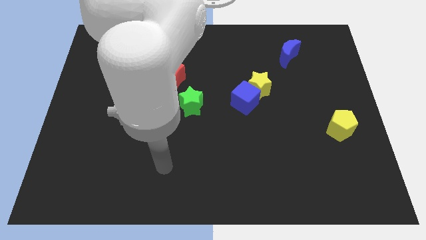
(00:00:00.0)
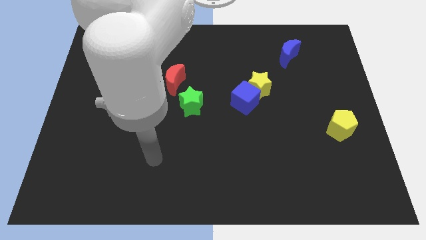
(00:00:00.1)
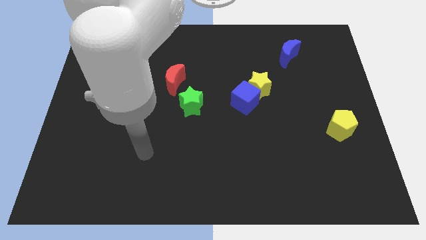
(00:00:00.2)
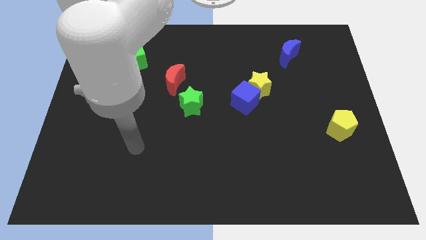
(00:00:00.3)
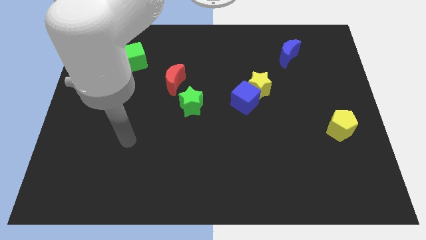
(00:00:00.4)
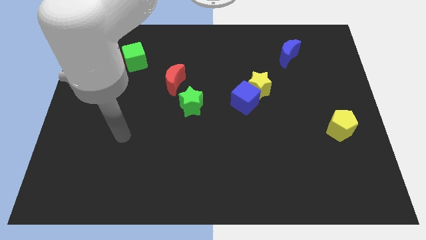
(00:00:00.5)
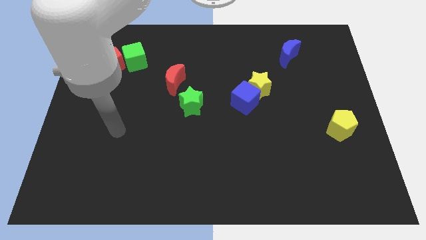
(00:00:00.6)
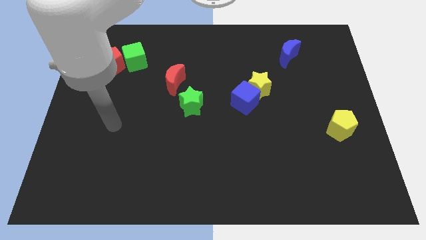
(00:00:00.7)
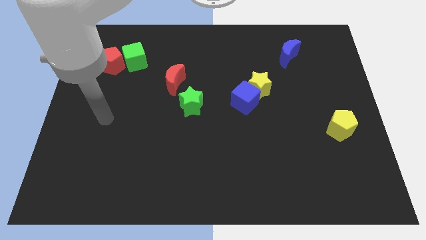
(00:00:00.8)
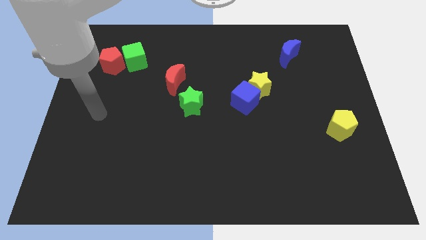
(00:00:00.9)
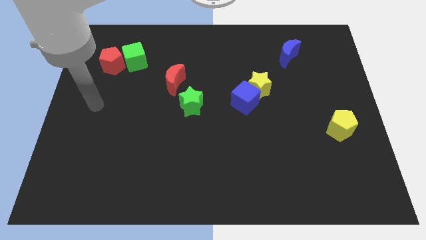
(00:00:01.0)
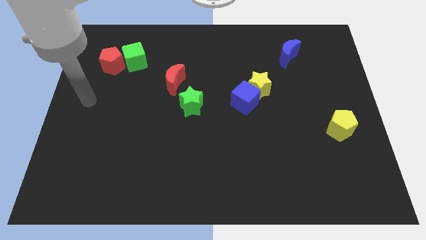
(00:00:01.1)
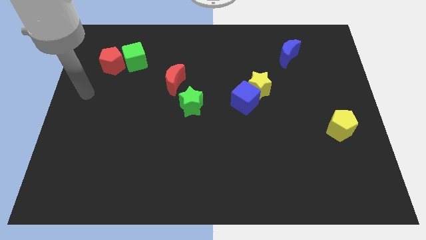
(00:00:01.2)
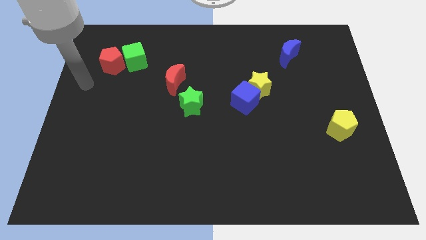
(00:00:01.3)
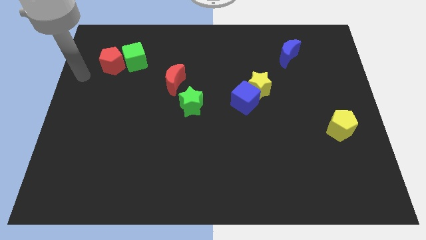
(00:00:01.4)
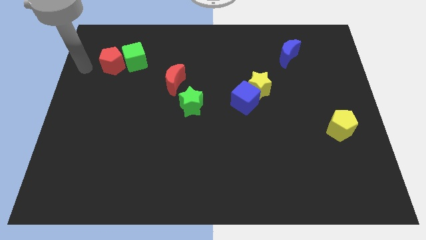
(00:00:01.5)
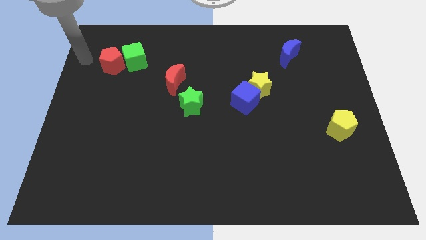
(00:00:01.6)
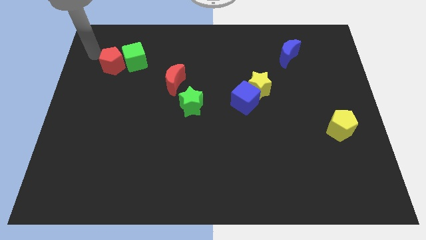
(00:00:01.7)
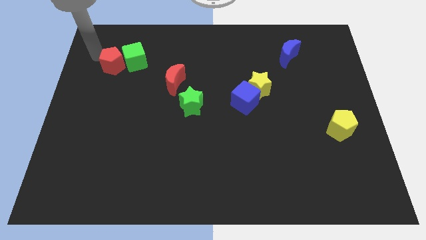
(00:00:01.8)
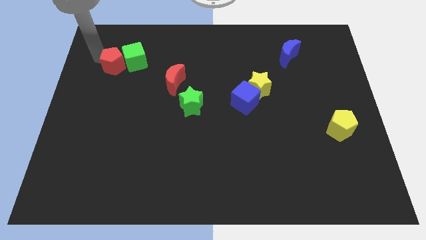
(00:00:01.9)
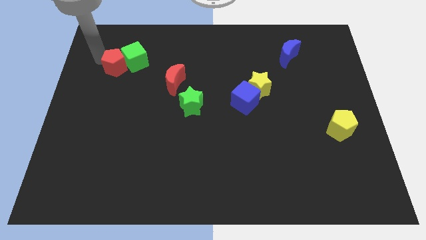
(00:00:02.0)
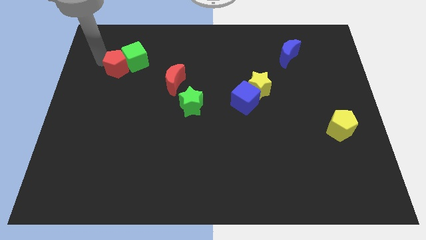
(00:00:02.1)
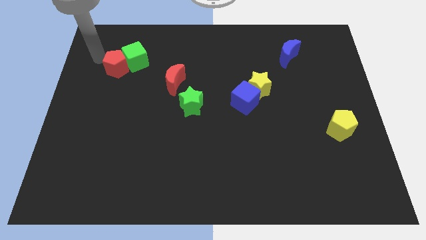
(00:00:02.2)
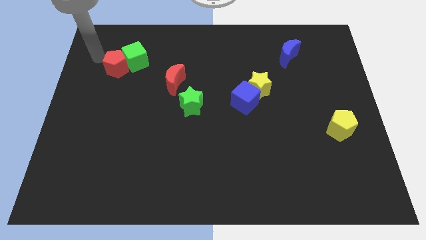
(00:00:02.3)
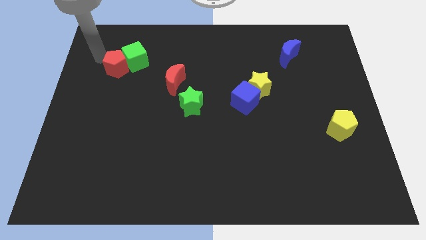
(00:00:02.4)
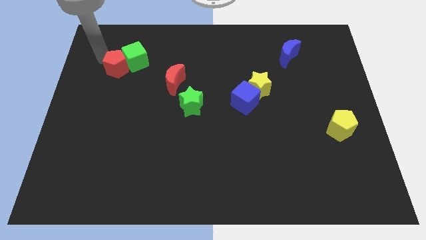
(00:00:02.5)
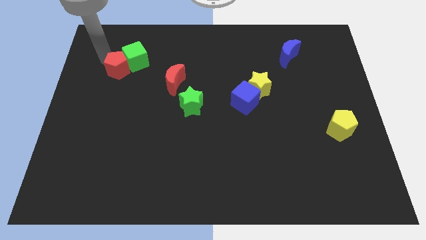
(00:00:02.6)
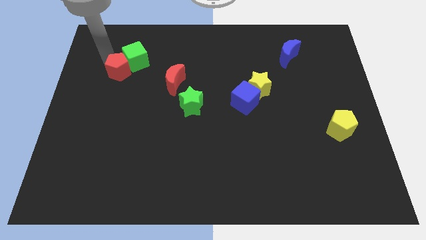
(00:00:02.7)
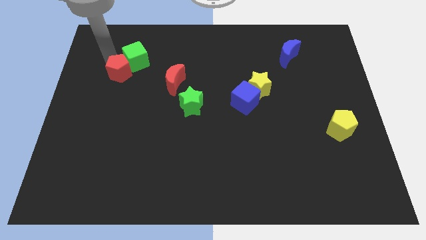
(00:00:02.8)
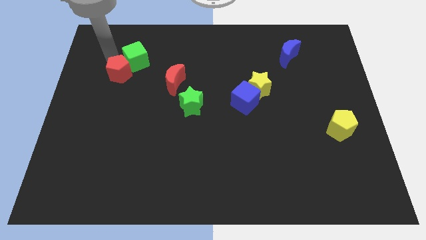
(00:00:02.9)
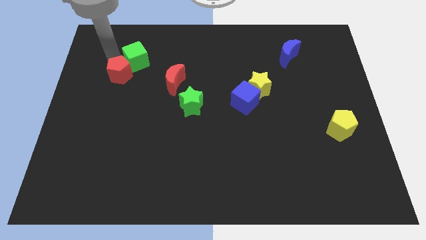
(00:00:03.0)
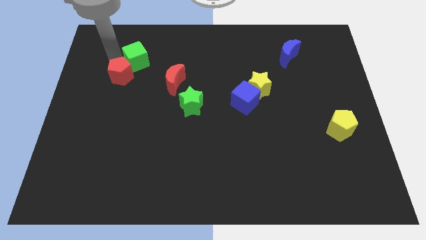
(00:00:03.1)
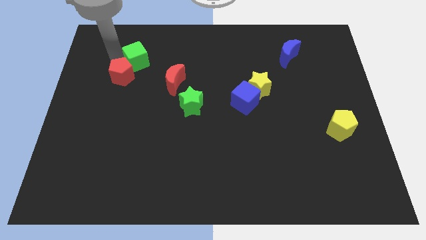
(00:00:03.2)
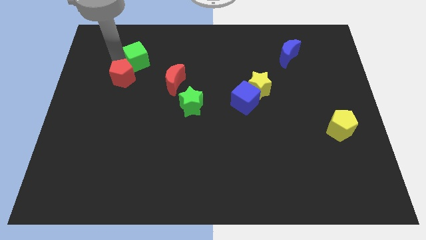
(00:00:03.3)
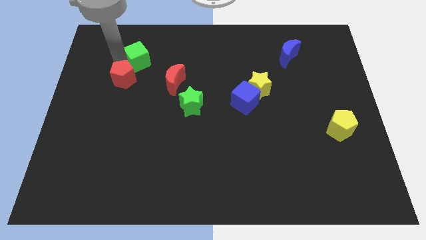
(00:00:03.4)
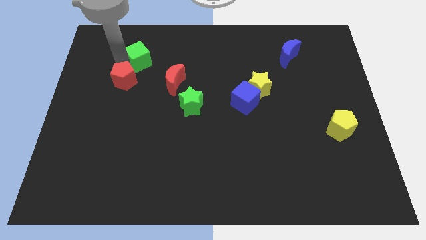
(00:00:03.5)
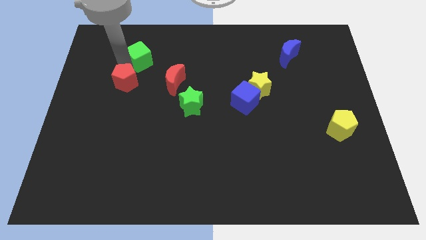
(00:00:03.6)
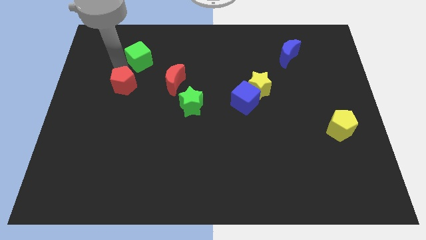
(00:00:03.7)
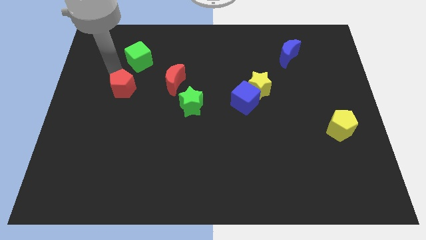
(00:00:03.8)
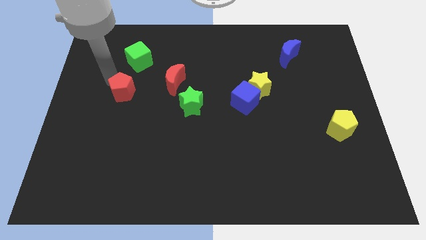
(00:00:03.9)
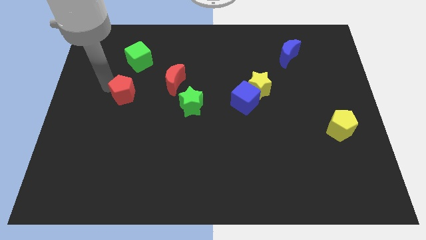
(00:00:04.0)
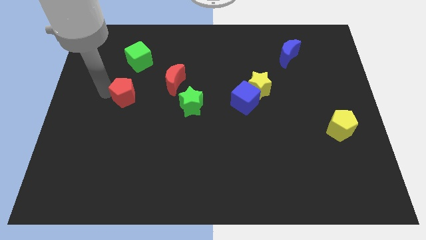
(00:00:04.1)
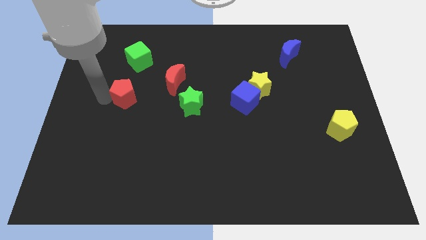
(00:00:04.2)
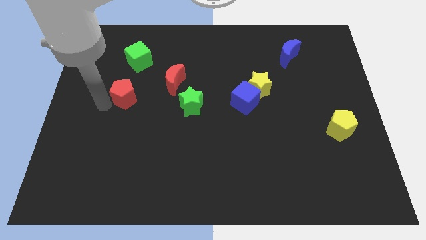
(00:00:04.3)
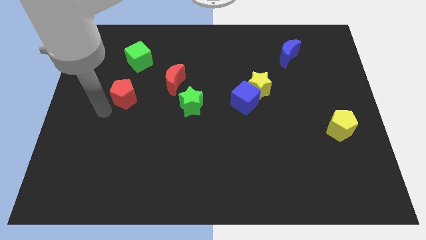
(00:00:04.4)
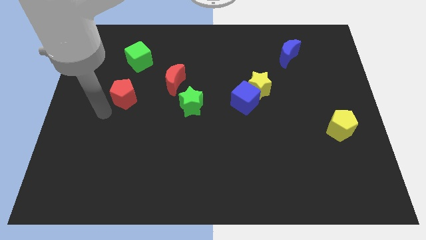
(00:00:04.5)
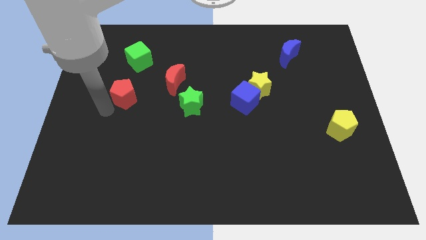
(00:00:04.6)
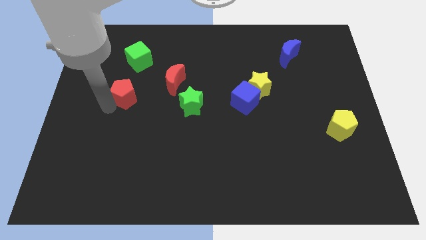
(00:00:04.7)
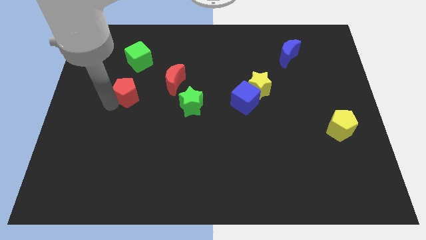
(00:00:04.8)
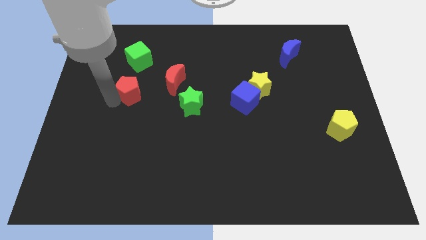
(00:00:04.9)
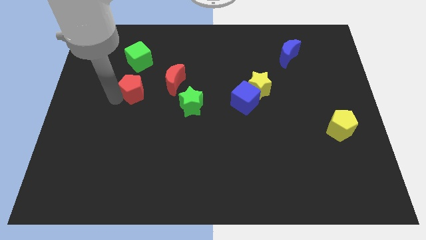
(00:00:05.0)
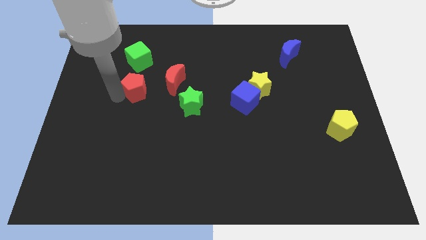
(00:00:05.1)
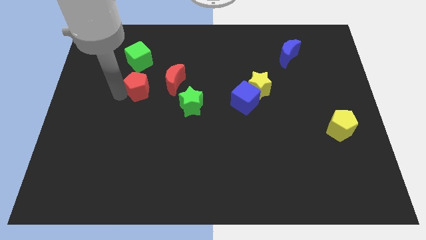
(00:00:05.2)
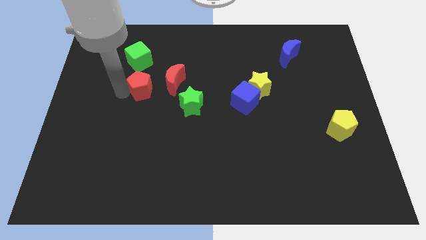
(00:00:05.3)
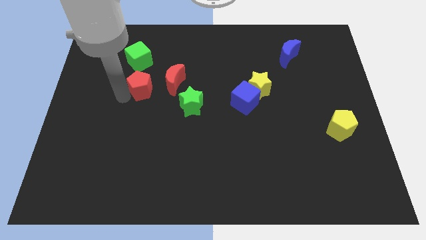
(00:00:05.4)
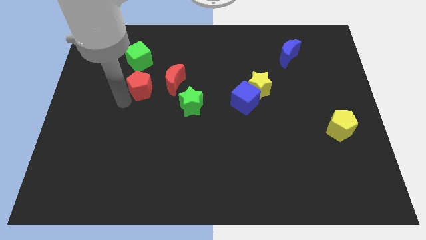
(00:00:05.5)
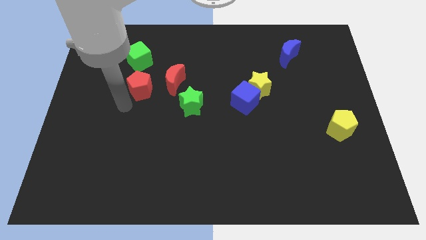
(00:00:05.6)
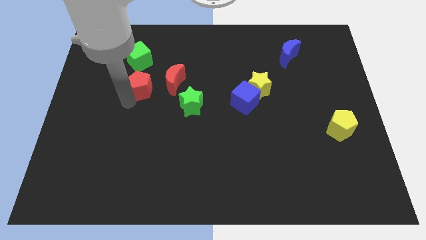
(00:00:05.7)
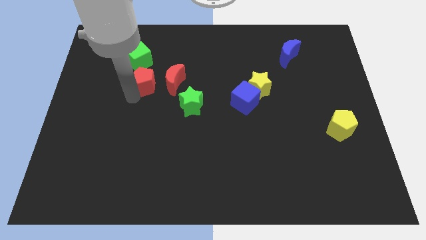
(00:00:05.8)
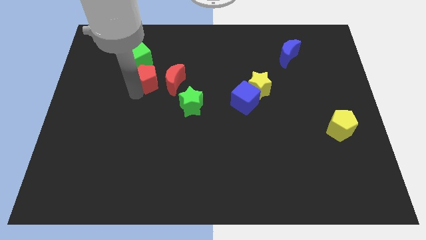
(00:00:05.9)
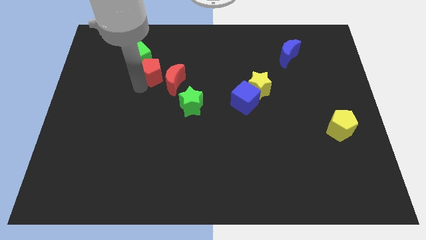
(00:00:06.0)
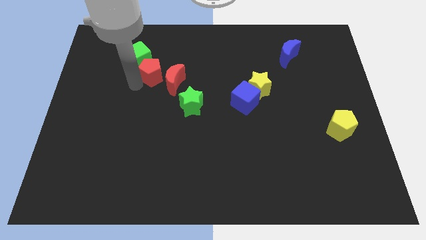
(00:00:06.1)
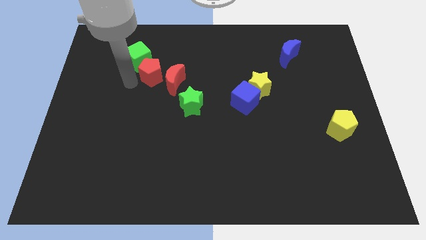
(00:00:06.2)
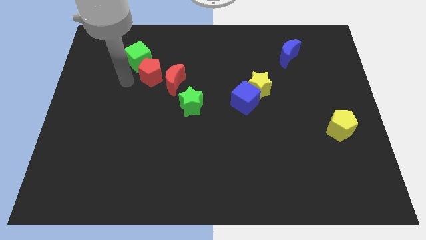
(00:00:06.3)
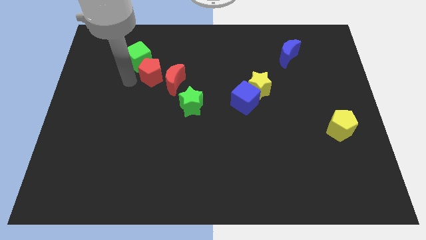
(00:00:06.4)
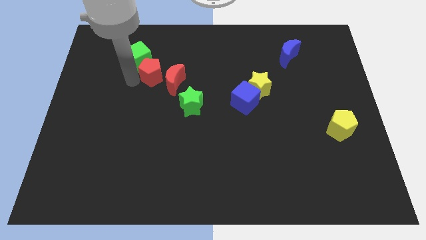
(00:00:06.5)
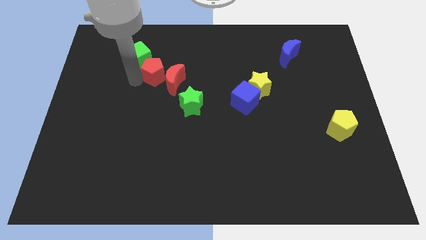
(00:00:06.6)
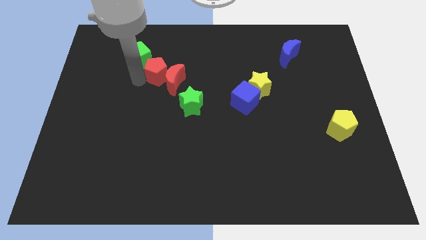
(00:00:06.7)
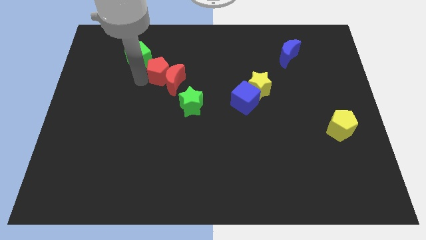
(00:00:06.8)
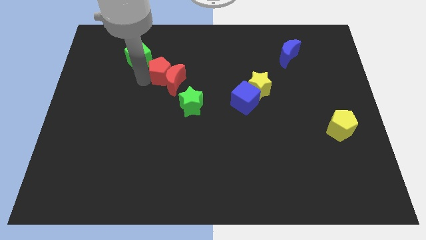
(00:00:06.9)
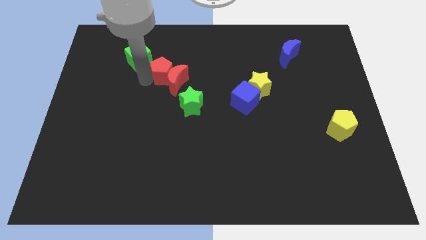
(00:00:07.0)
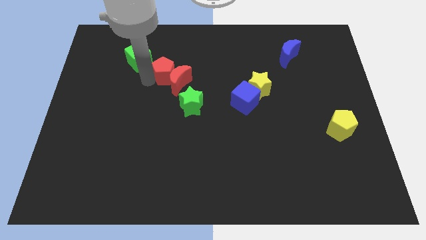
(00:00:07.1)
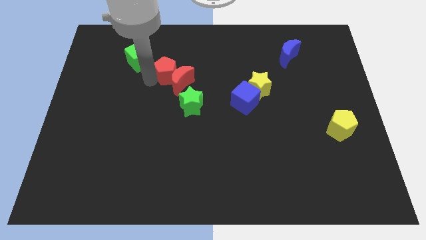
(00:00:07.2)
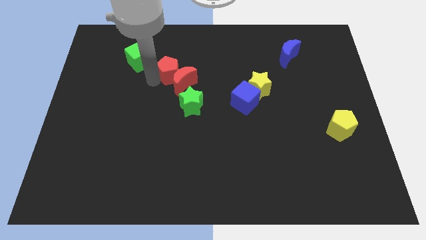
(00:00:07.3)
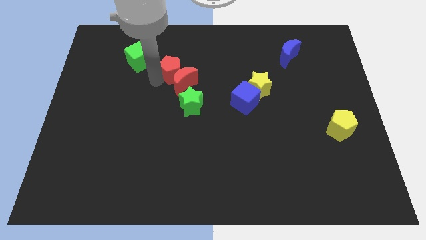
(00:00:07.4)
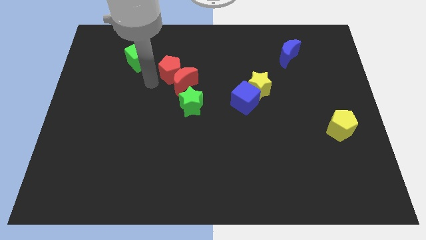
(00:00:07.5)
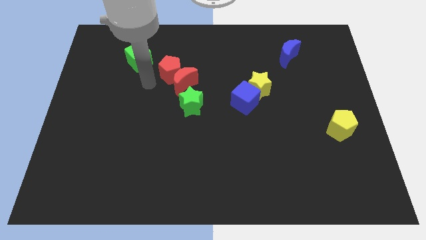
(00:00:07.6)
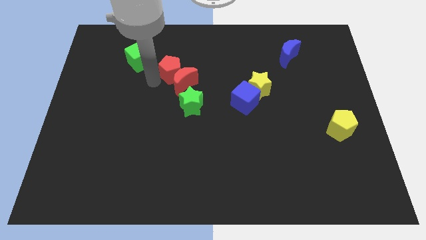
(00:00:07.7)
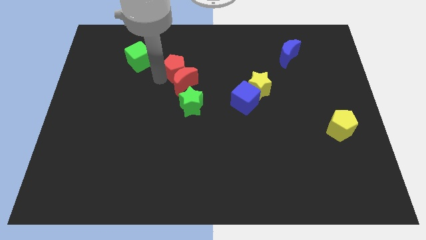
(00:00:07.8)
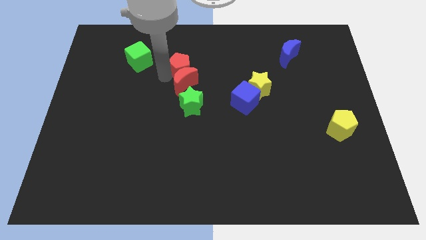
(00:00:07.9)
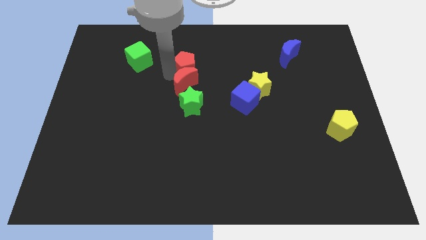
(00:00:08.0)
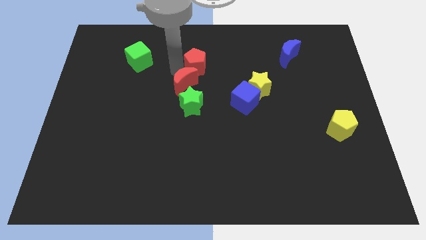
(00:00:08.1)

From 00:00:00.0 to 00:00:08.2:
slide the red pentagon to the right
